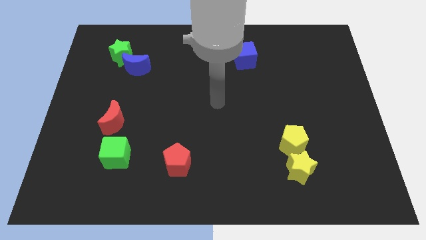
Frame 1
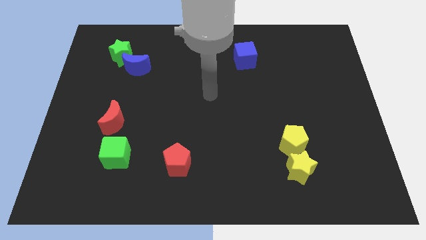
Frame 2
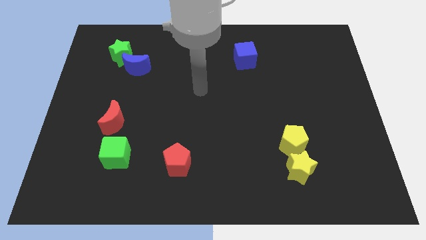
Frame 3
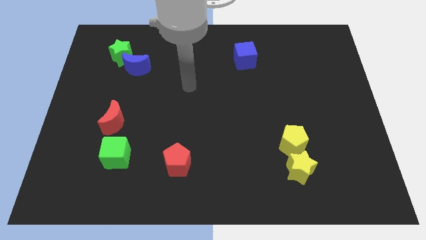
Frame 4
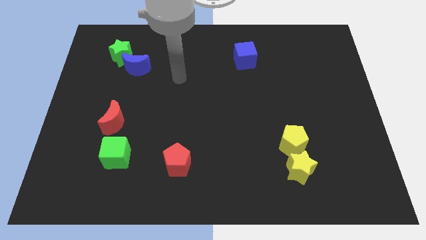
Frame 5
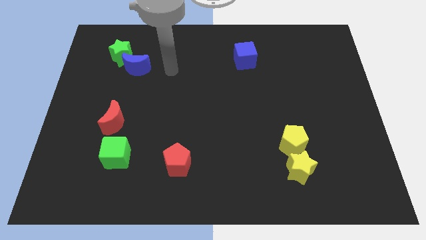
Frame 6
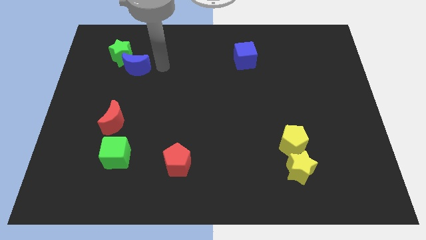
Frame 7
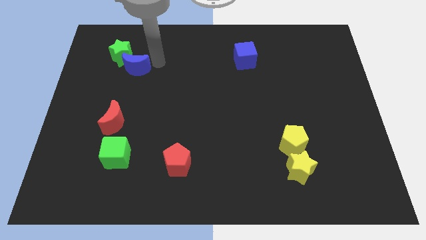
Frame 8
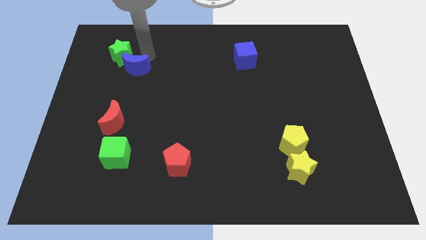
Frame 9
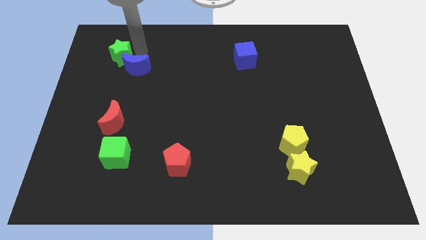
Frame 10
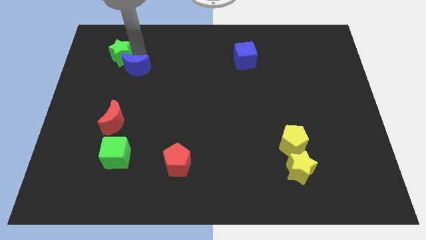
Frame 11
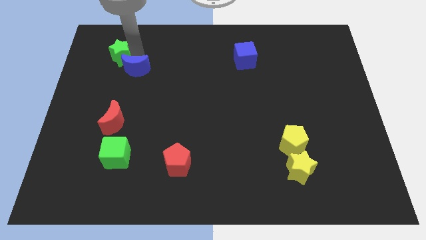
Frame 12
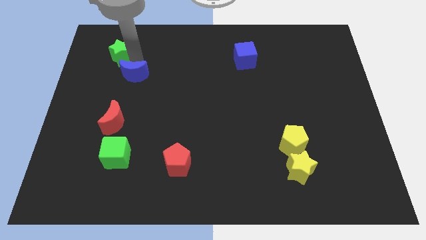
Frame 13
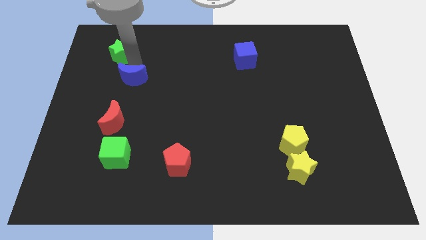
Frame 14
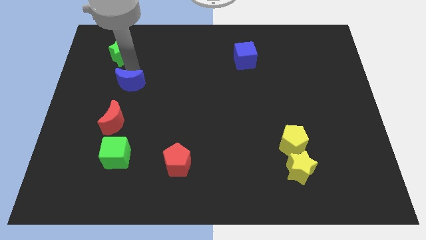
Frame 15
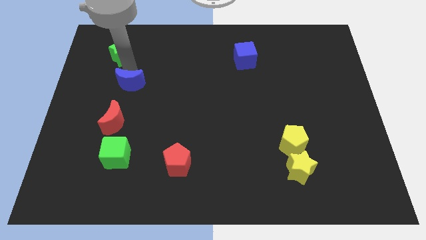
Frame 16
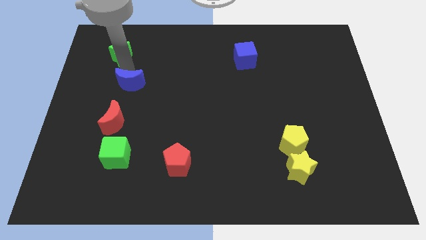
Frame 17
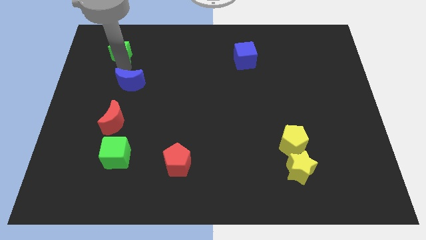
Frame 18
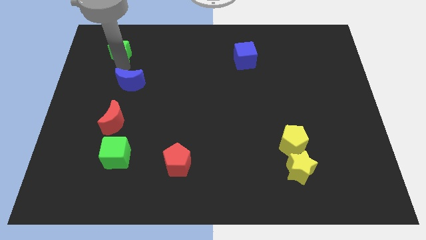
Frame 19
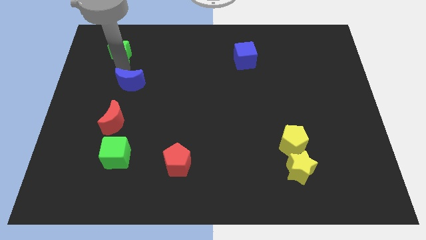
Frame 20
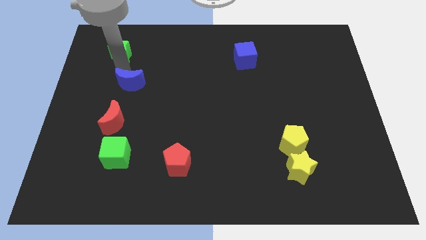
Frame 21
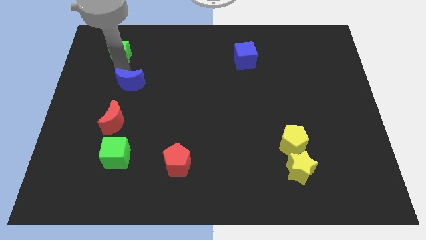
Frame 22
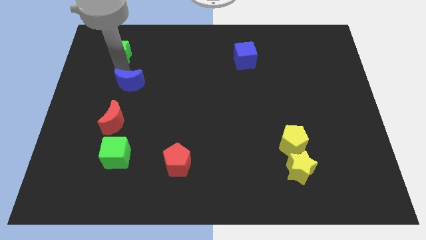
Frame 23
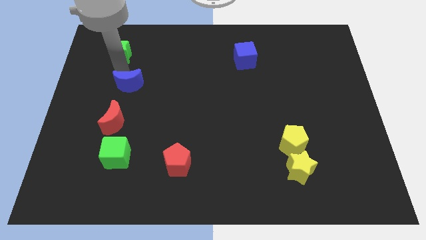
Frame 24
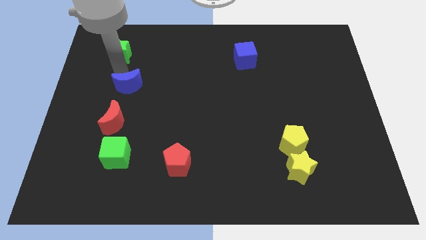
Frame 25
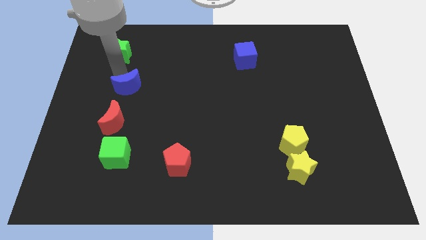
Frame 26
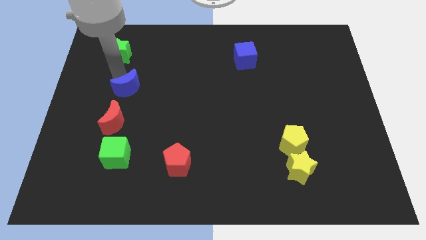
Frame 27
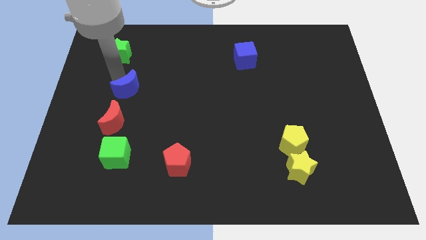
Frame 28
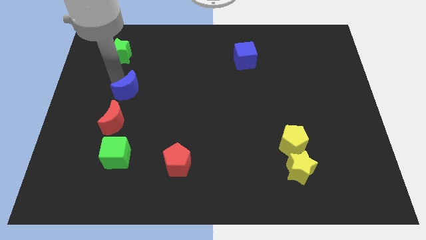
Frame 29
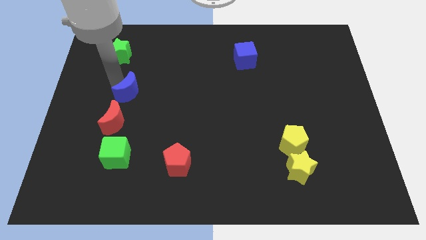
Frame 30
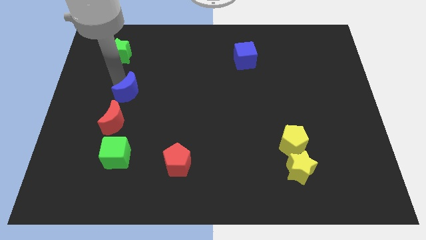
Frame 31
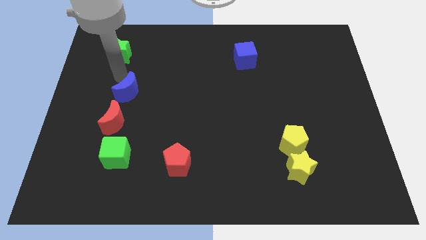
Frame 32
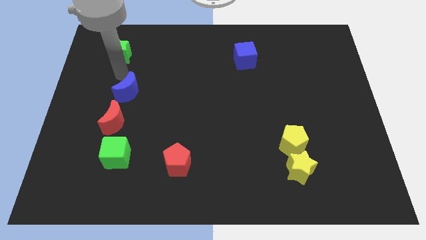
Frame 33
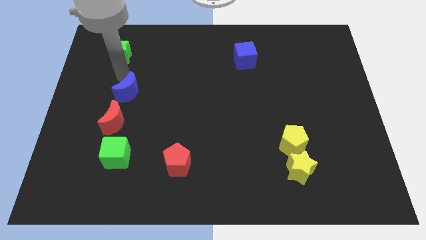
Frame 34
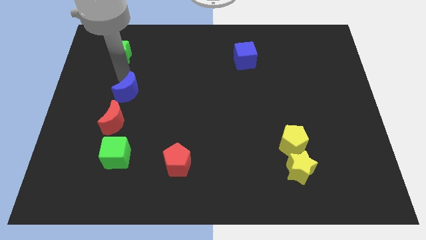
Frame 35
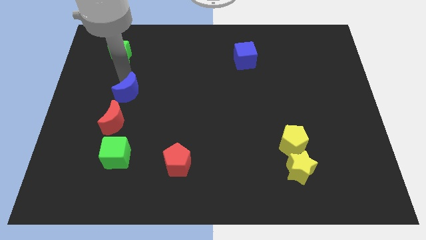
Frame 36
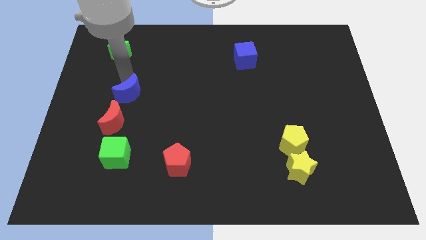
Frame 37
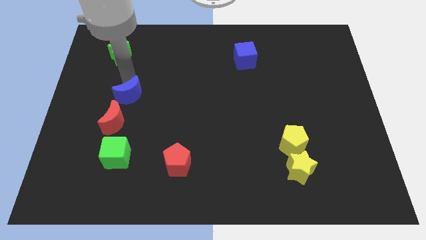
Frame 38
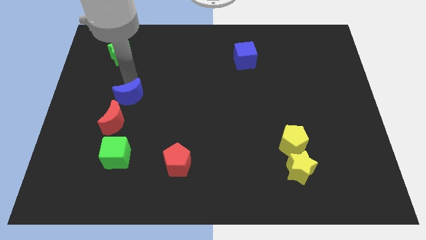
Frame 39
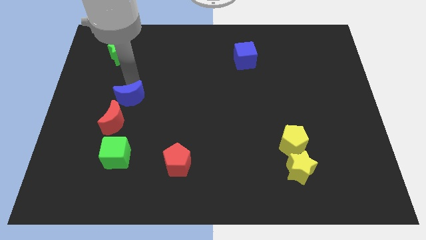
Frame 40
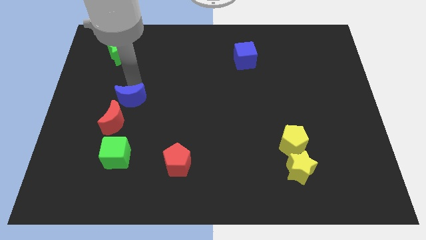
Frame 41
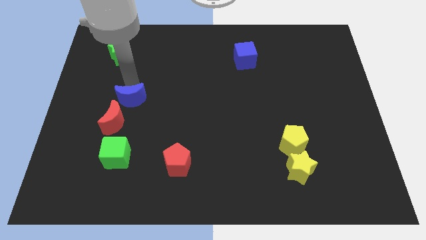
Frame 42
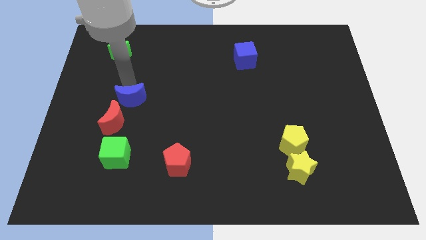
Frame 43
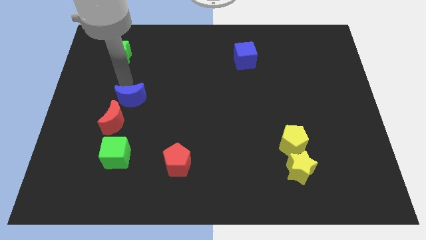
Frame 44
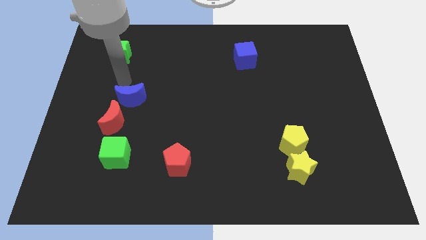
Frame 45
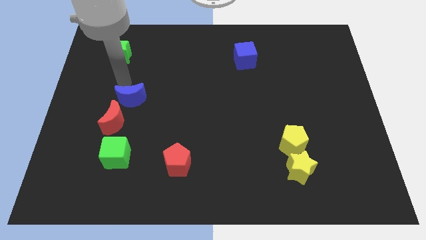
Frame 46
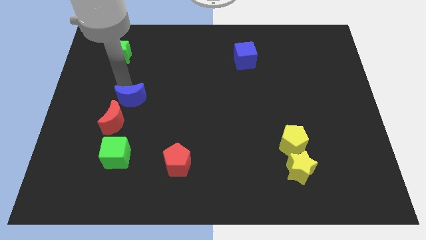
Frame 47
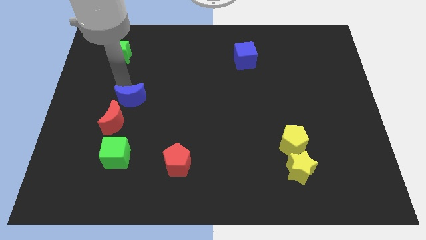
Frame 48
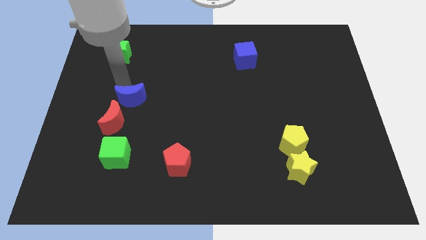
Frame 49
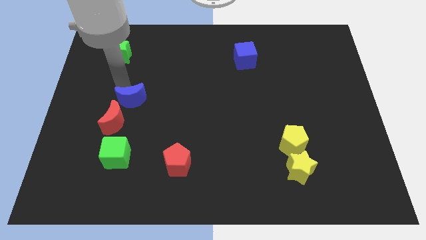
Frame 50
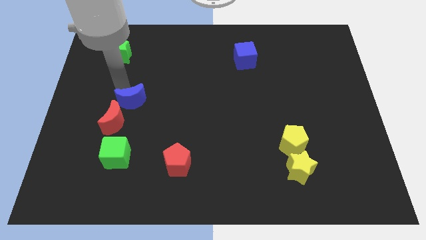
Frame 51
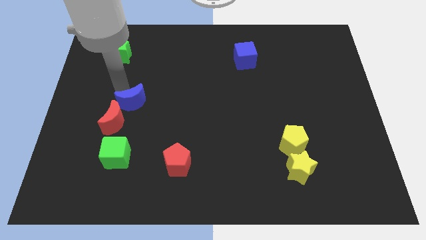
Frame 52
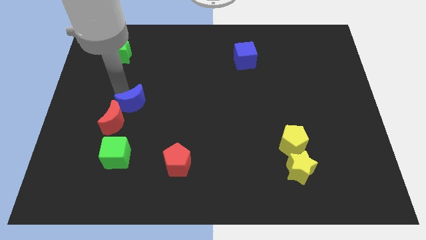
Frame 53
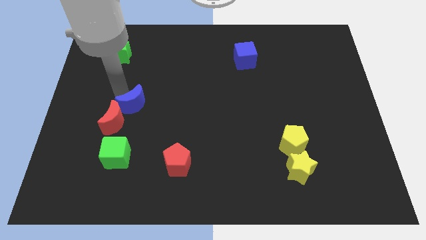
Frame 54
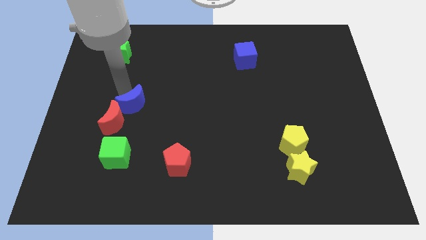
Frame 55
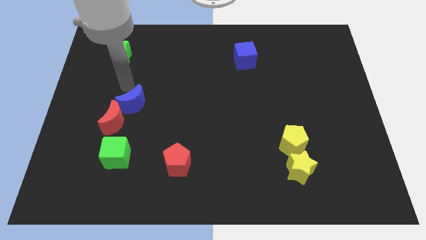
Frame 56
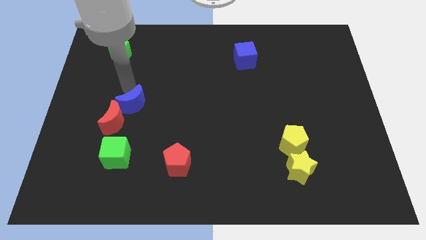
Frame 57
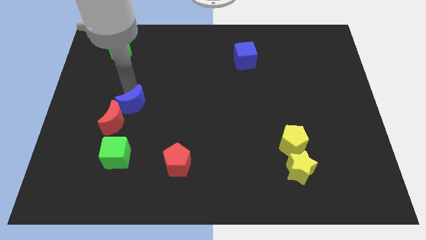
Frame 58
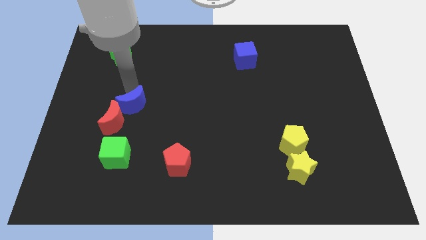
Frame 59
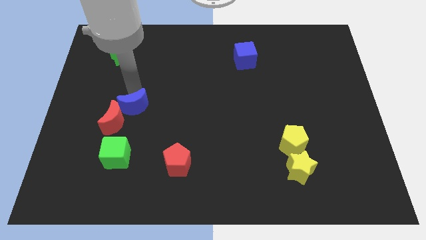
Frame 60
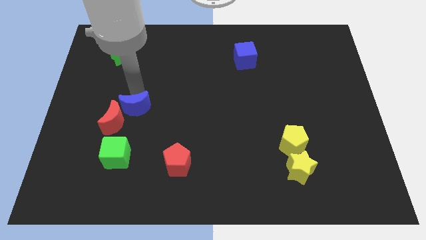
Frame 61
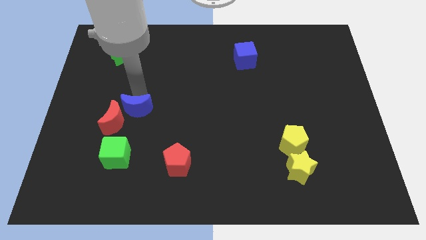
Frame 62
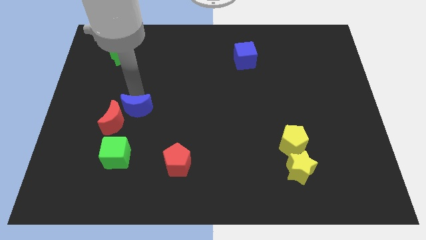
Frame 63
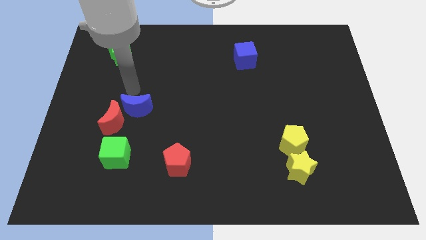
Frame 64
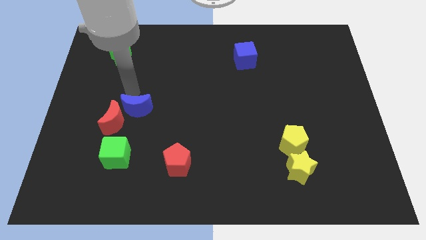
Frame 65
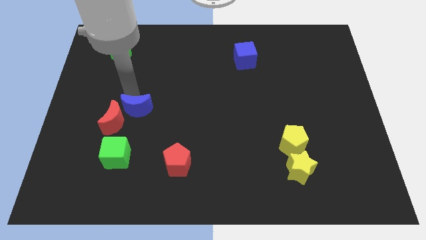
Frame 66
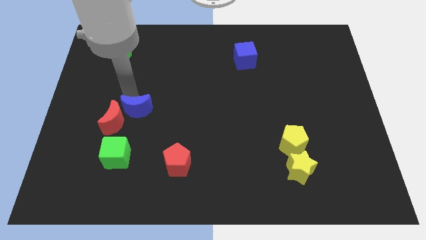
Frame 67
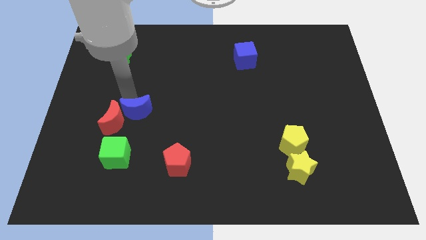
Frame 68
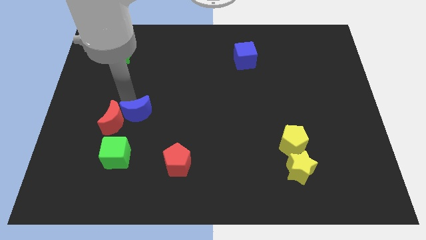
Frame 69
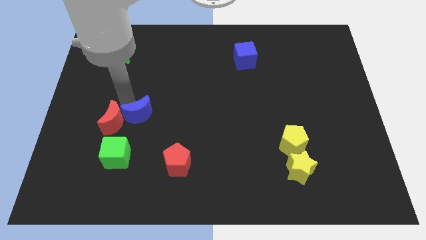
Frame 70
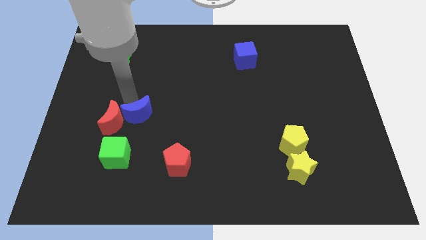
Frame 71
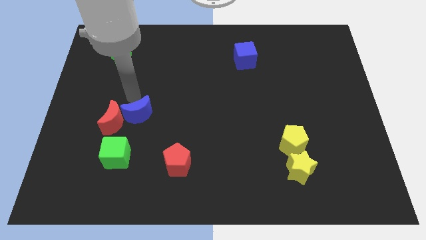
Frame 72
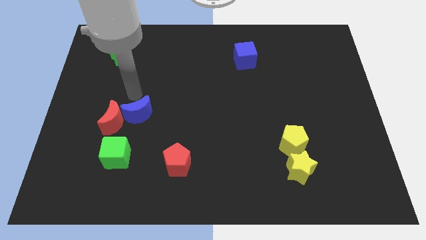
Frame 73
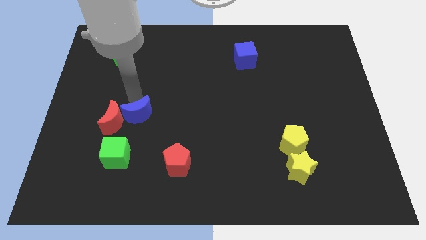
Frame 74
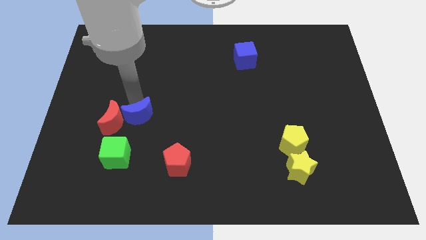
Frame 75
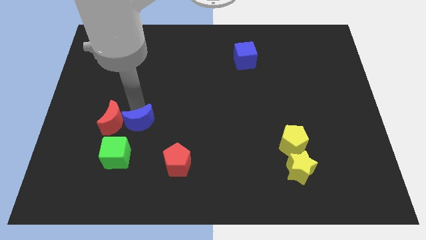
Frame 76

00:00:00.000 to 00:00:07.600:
slide the blue moon to the top right of the green cube
